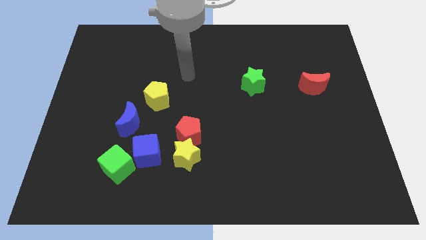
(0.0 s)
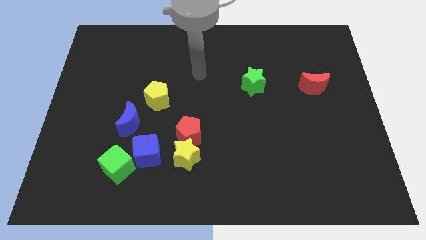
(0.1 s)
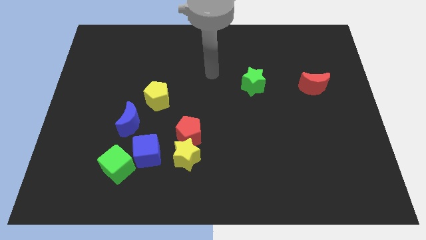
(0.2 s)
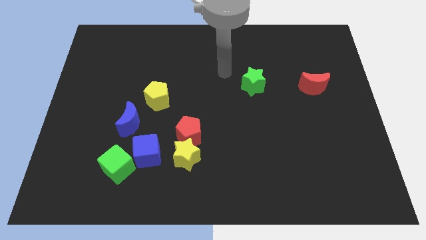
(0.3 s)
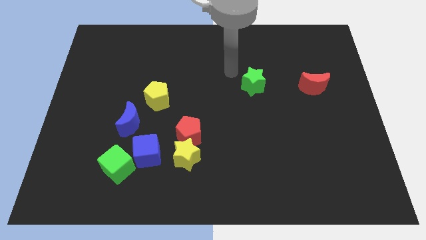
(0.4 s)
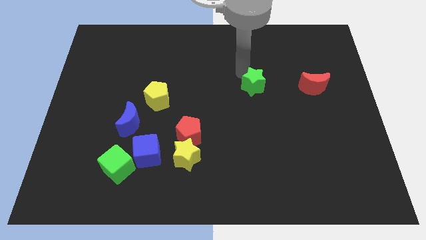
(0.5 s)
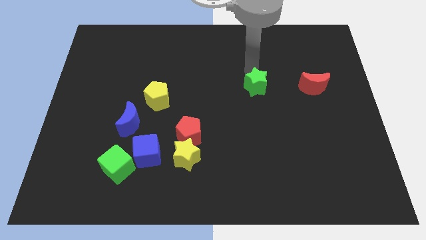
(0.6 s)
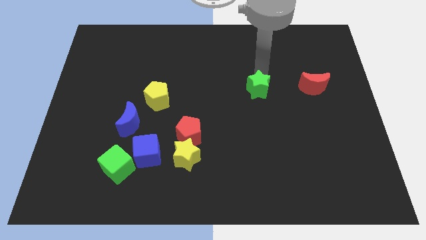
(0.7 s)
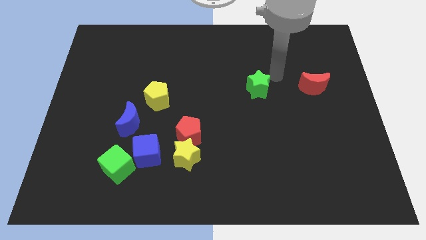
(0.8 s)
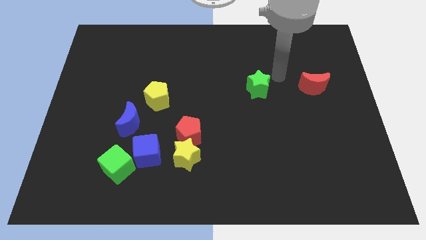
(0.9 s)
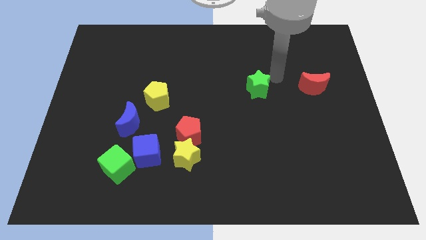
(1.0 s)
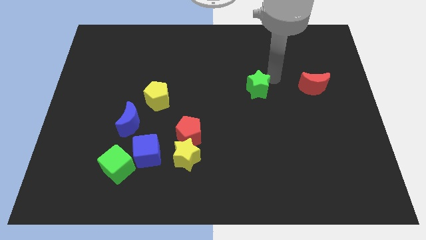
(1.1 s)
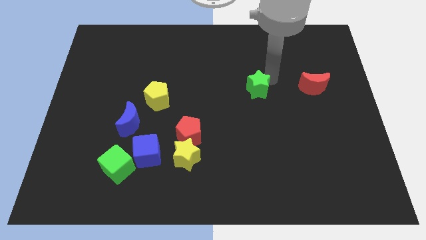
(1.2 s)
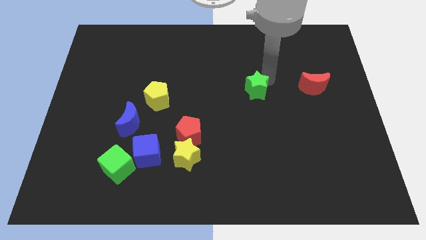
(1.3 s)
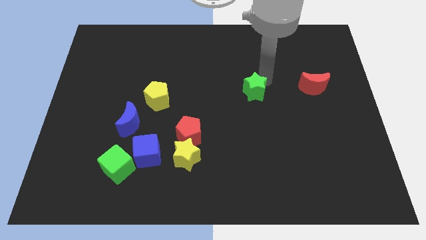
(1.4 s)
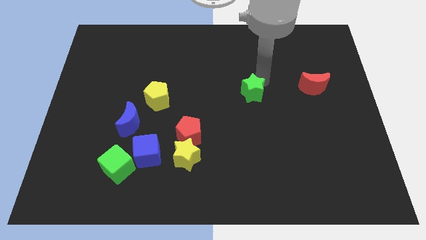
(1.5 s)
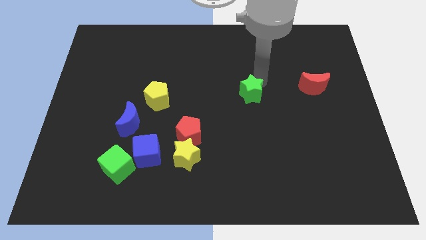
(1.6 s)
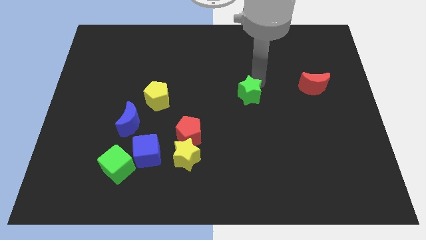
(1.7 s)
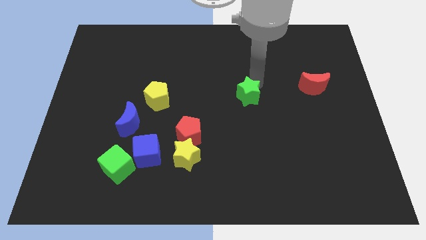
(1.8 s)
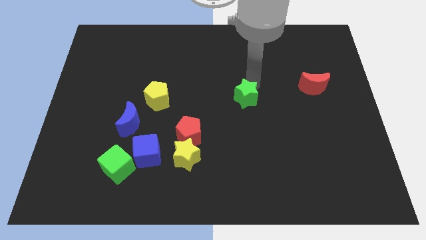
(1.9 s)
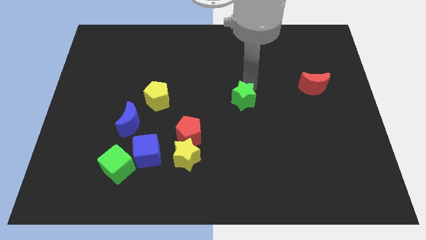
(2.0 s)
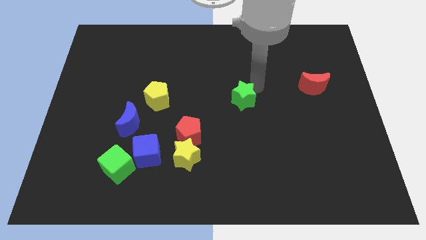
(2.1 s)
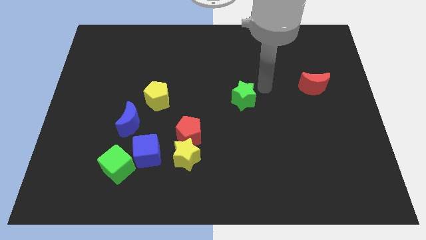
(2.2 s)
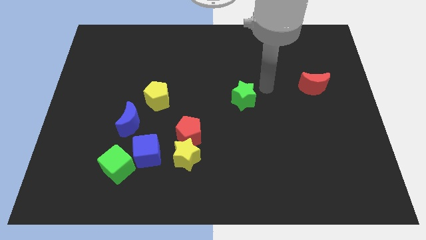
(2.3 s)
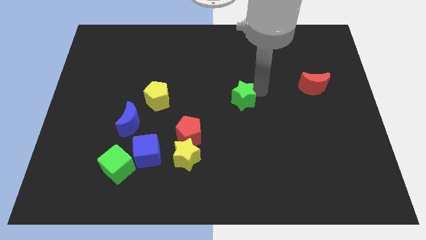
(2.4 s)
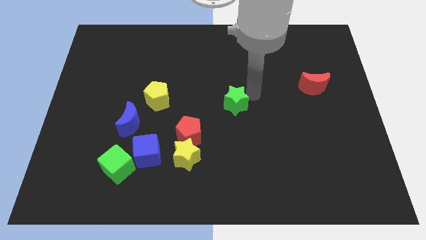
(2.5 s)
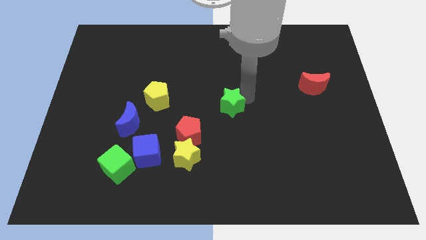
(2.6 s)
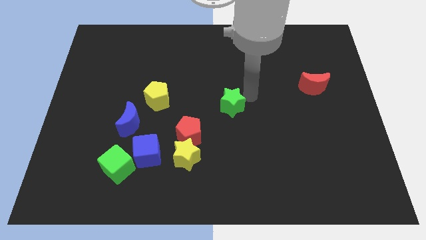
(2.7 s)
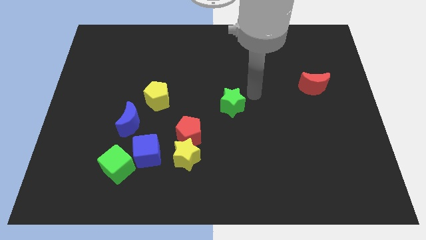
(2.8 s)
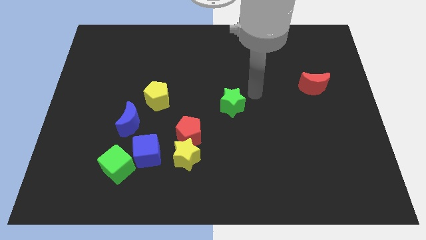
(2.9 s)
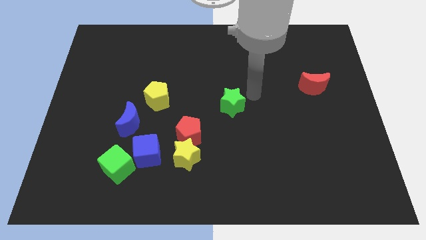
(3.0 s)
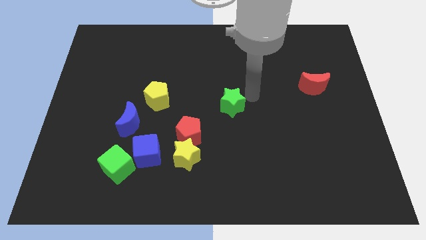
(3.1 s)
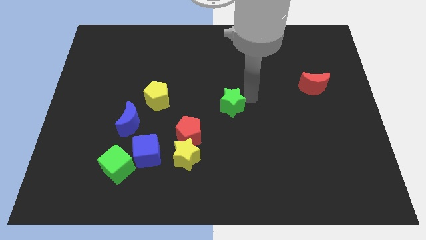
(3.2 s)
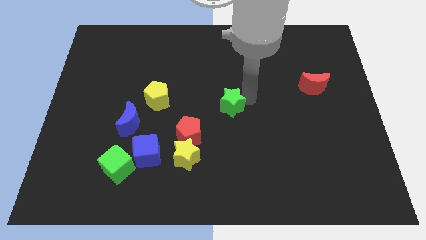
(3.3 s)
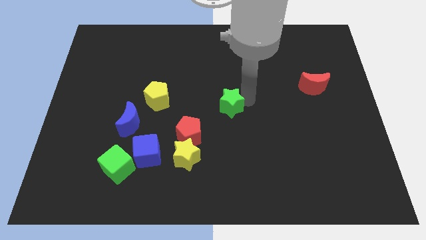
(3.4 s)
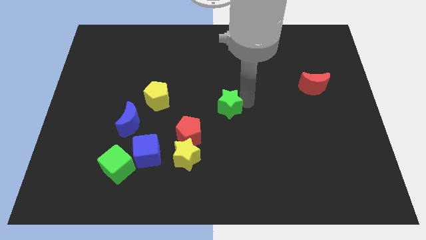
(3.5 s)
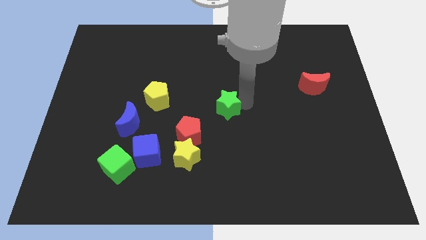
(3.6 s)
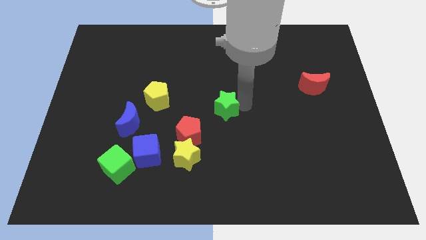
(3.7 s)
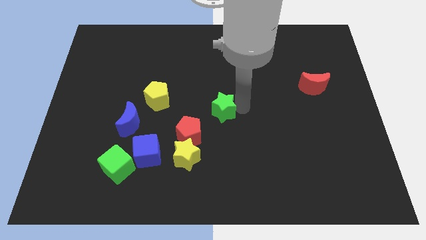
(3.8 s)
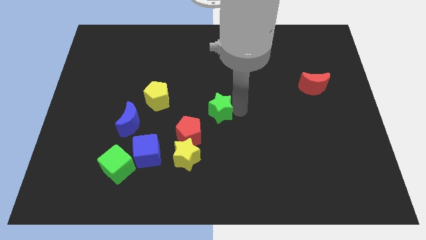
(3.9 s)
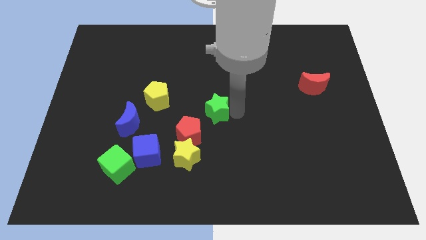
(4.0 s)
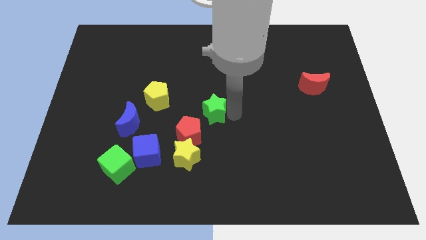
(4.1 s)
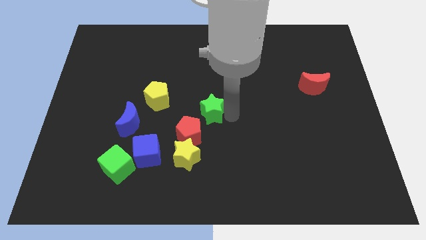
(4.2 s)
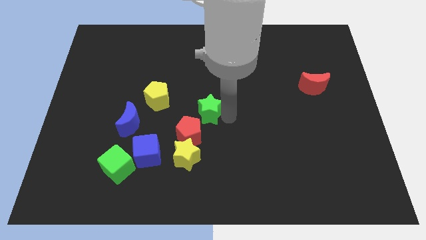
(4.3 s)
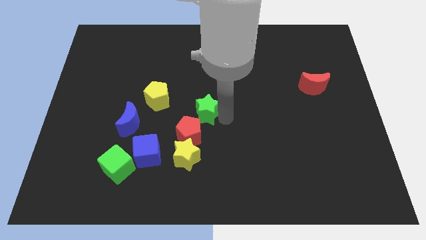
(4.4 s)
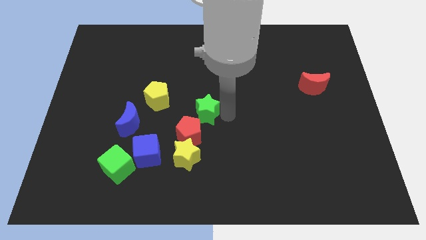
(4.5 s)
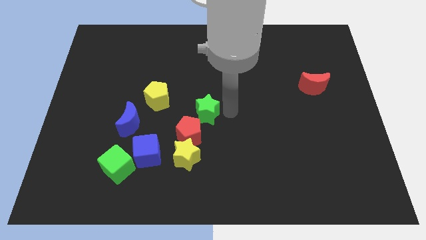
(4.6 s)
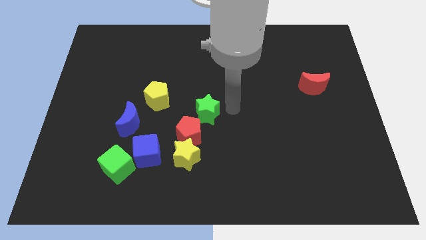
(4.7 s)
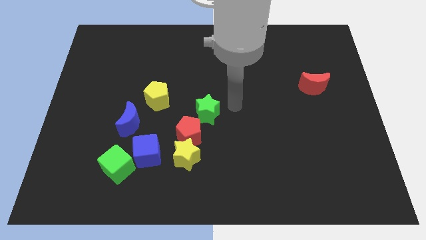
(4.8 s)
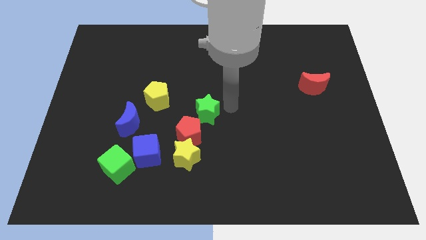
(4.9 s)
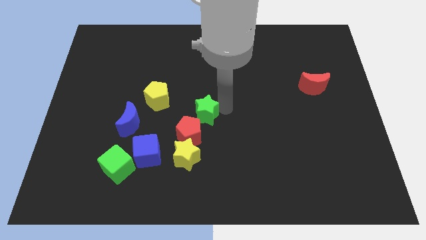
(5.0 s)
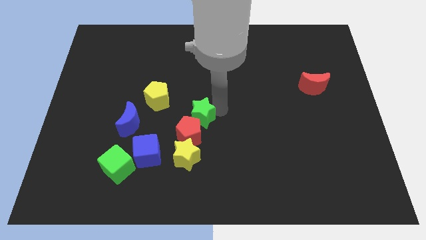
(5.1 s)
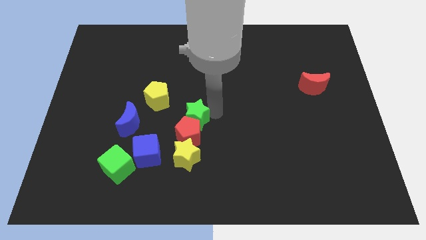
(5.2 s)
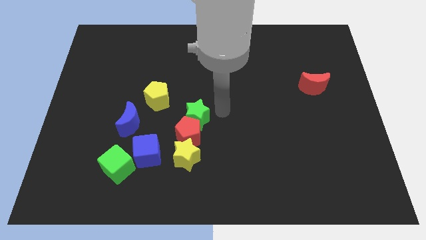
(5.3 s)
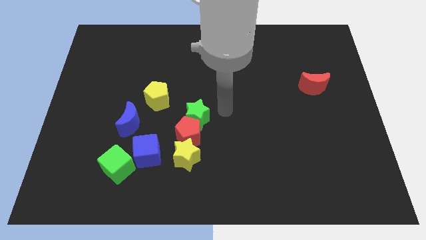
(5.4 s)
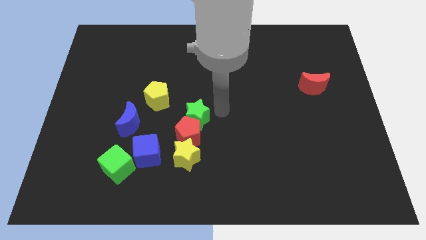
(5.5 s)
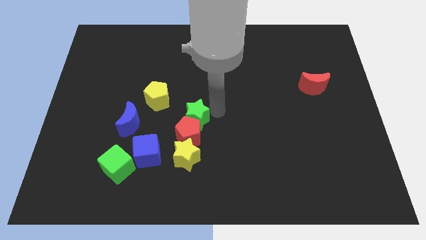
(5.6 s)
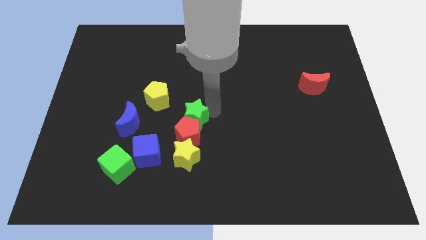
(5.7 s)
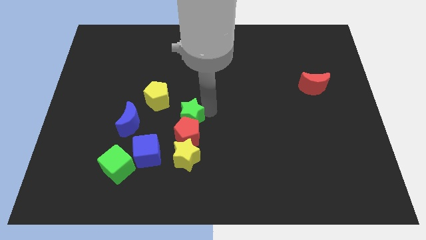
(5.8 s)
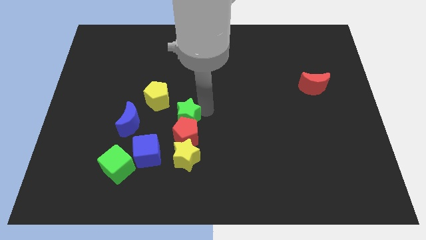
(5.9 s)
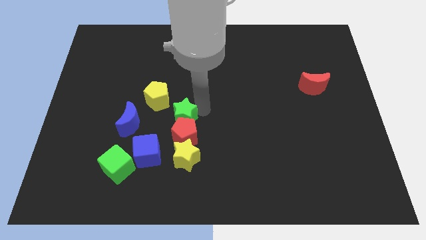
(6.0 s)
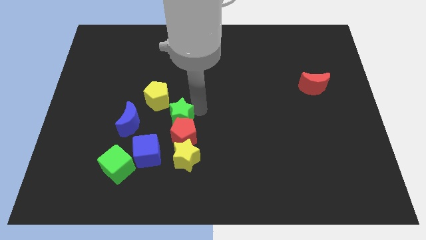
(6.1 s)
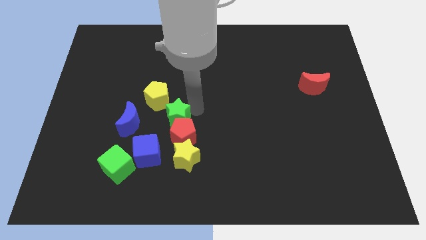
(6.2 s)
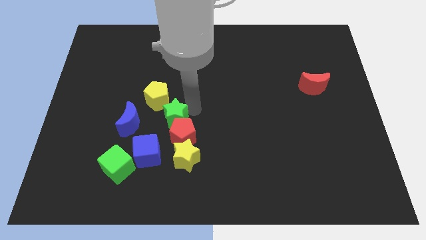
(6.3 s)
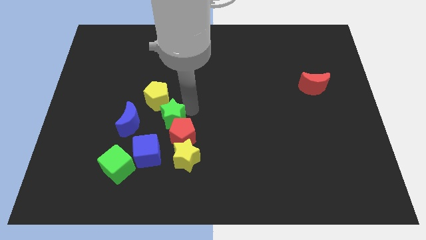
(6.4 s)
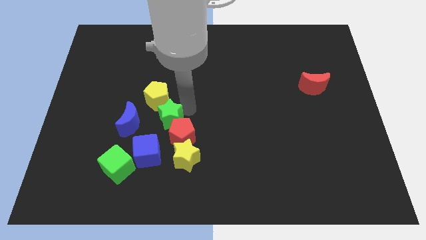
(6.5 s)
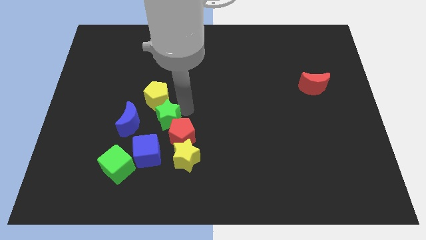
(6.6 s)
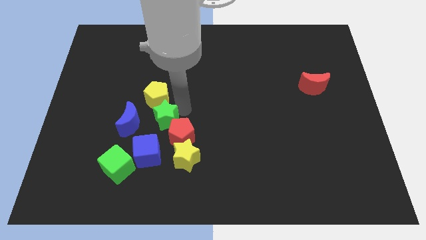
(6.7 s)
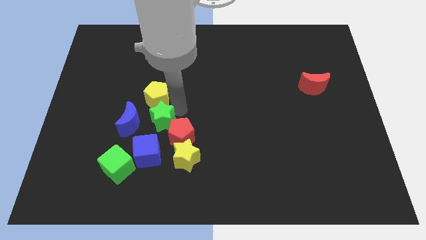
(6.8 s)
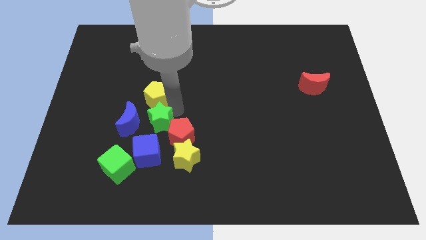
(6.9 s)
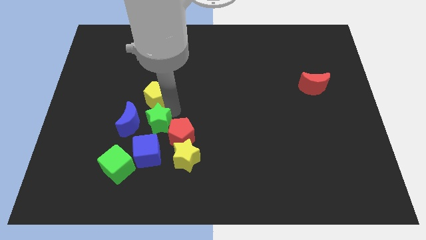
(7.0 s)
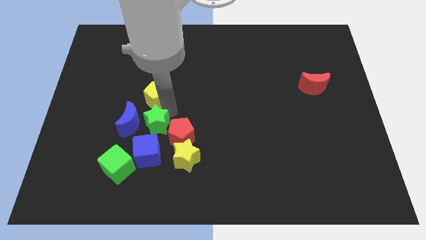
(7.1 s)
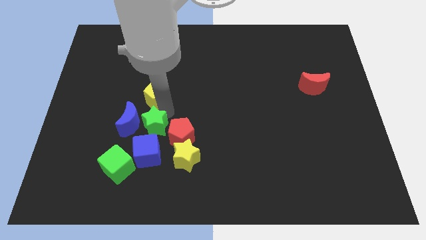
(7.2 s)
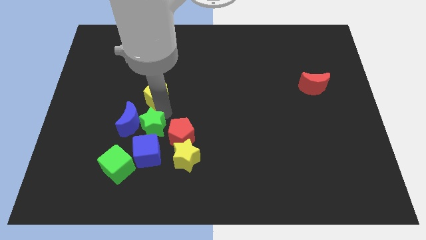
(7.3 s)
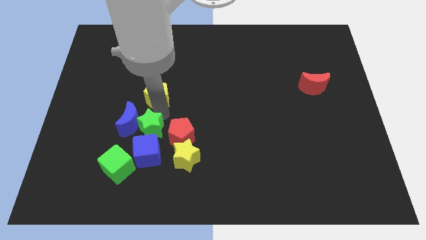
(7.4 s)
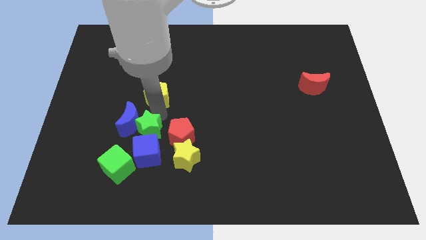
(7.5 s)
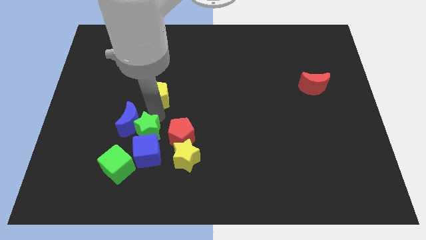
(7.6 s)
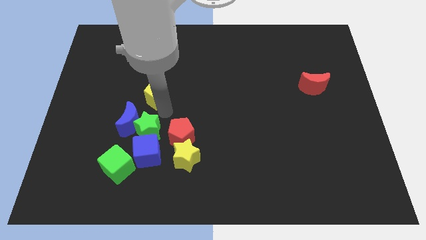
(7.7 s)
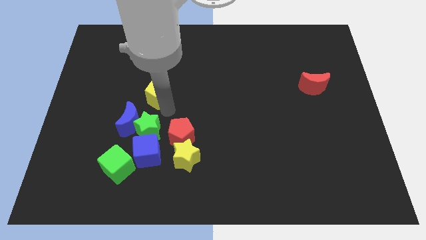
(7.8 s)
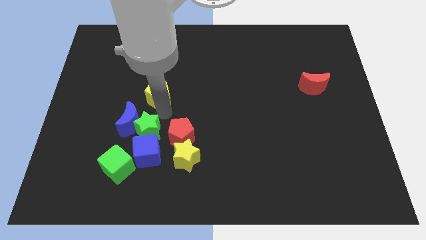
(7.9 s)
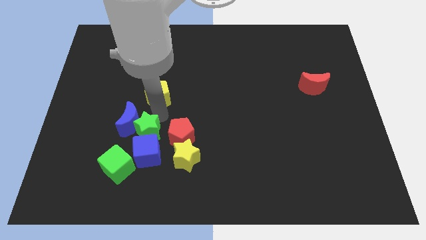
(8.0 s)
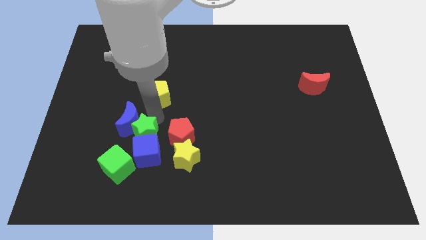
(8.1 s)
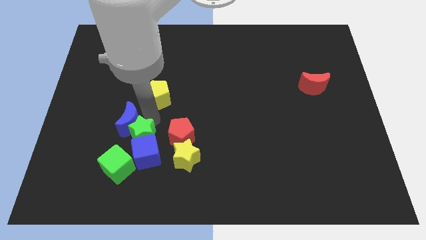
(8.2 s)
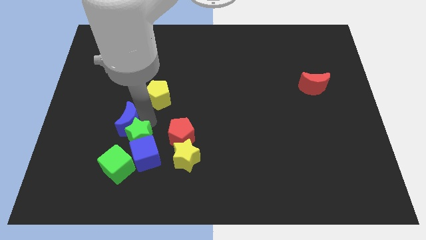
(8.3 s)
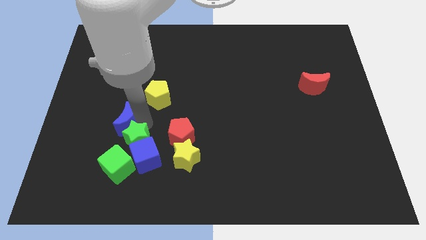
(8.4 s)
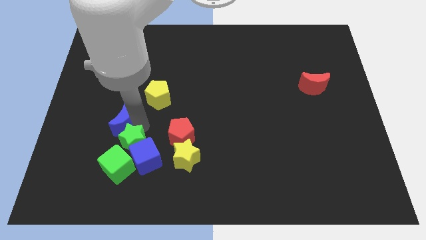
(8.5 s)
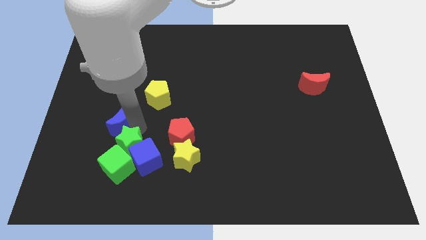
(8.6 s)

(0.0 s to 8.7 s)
move the green star towards the green cube
